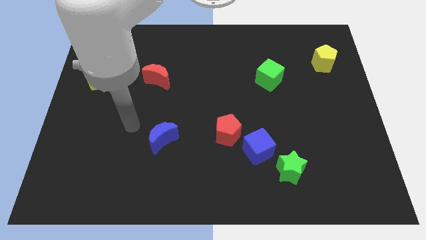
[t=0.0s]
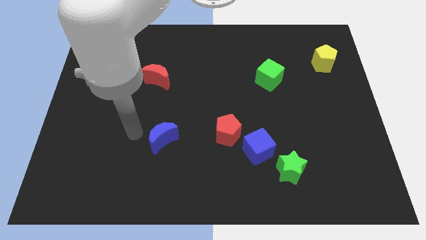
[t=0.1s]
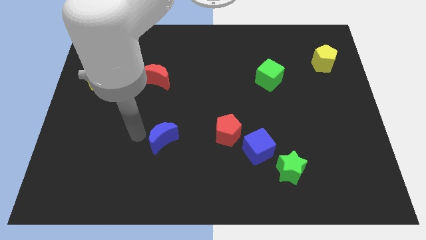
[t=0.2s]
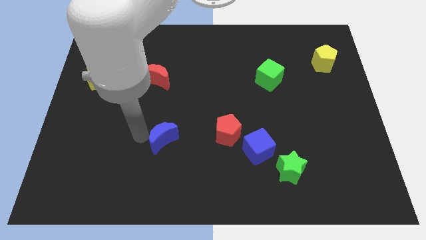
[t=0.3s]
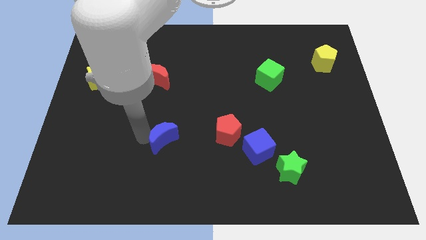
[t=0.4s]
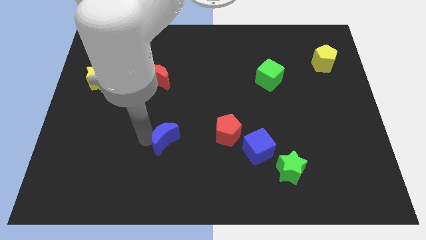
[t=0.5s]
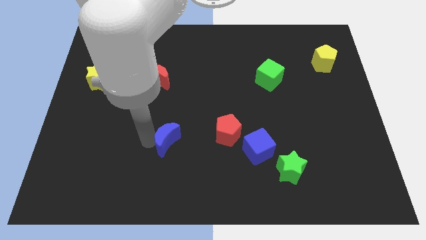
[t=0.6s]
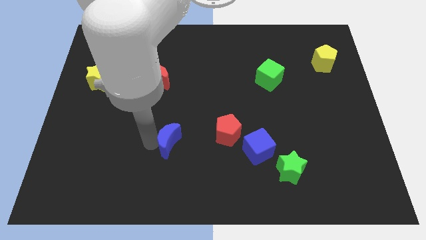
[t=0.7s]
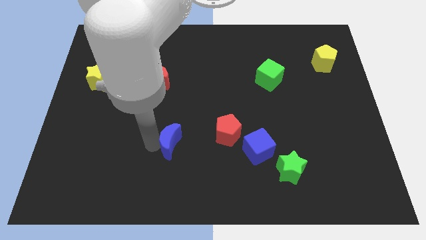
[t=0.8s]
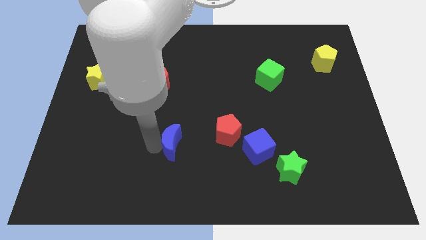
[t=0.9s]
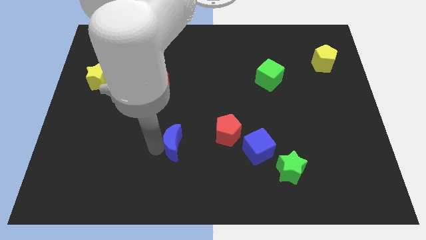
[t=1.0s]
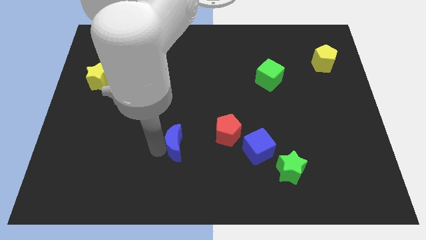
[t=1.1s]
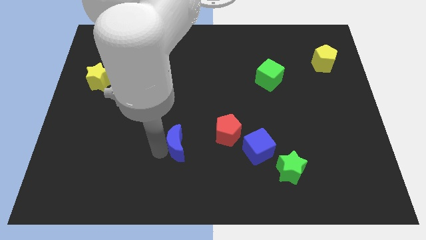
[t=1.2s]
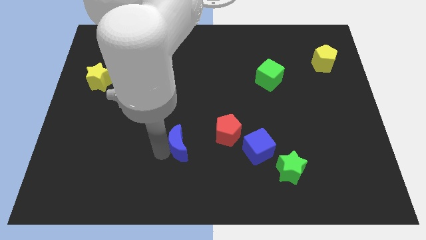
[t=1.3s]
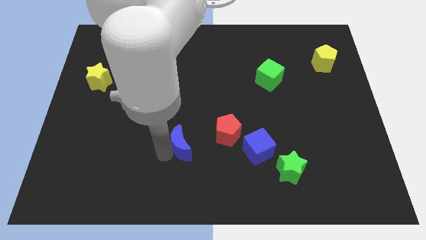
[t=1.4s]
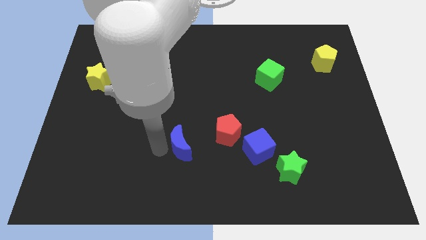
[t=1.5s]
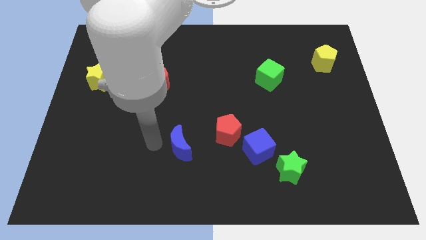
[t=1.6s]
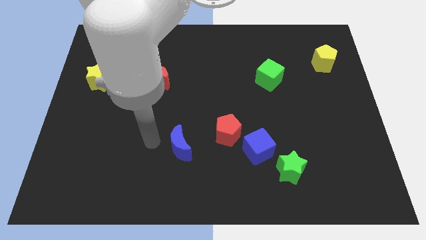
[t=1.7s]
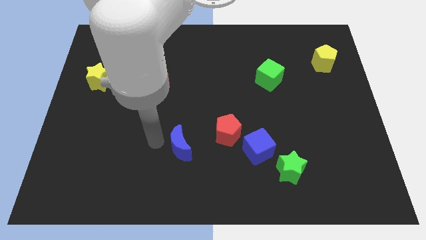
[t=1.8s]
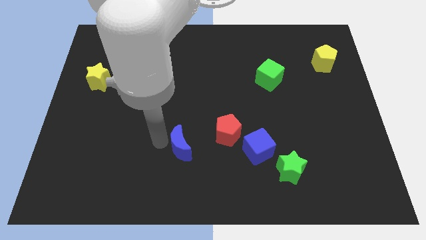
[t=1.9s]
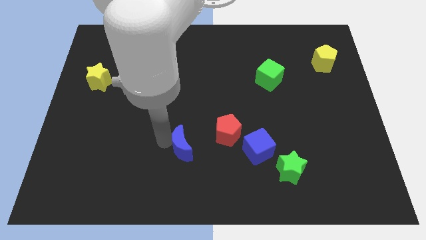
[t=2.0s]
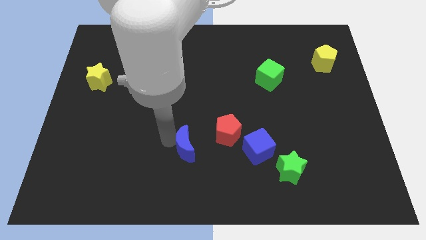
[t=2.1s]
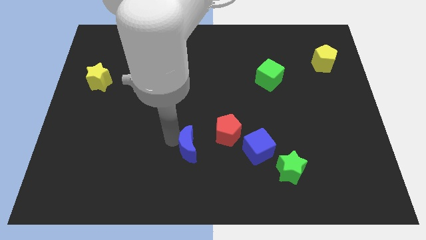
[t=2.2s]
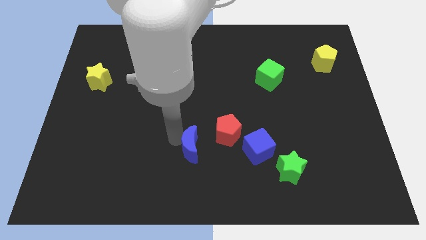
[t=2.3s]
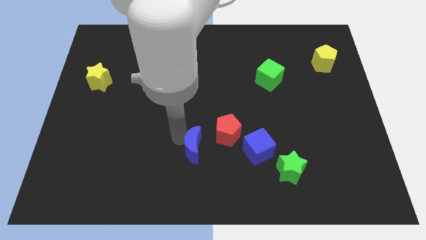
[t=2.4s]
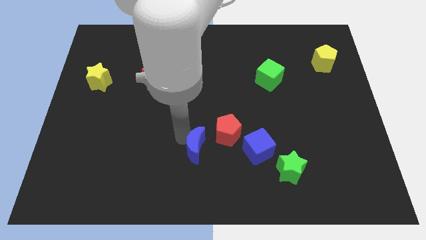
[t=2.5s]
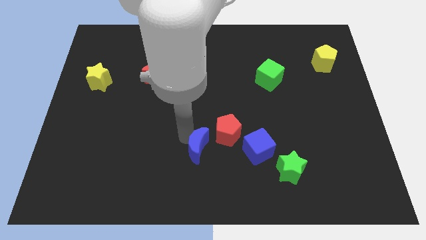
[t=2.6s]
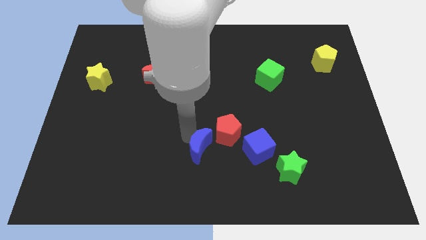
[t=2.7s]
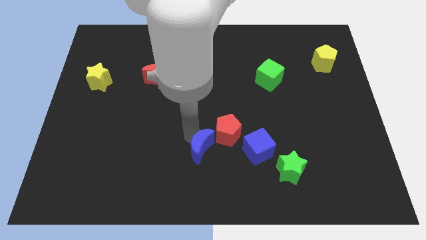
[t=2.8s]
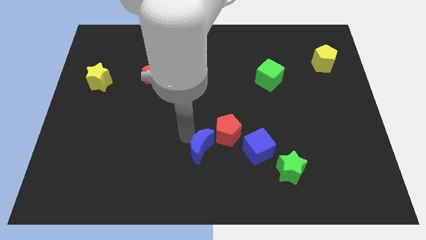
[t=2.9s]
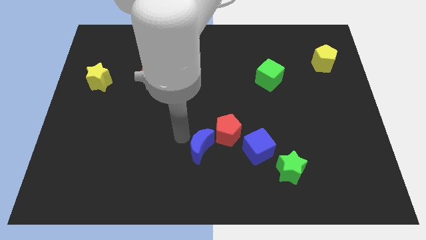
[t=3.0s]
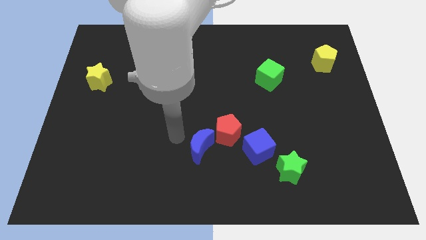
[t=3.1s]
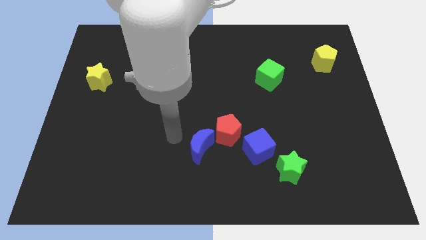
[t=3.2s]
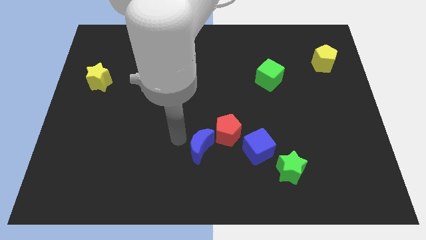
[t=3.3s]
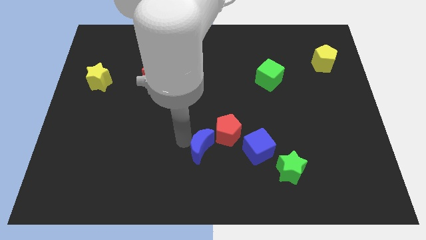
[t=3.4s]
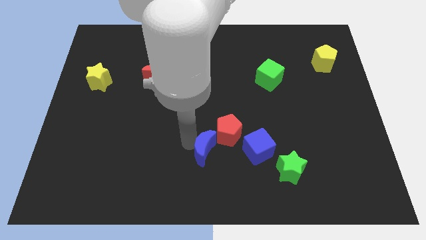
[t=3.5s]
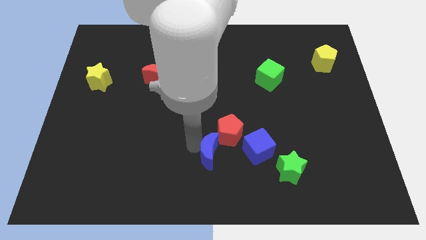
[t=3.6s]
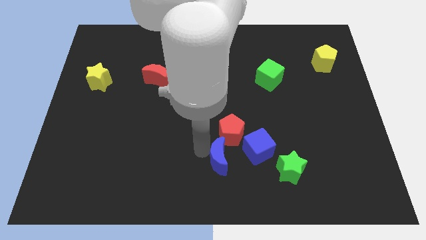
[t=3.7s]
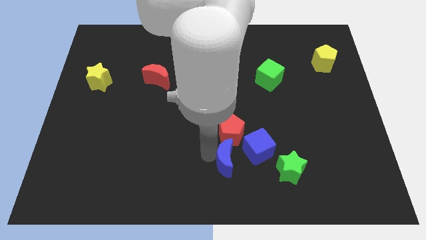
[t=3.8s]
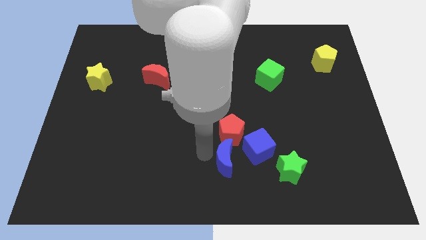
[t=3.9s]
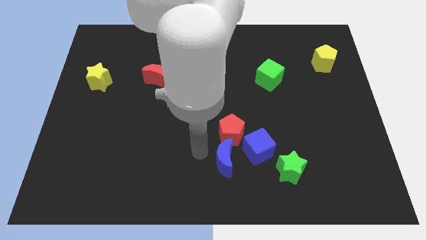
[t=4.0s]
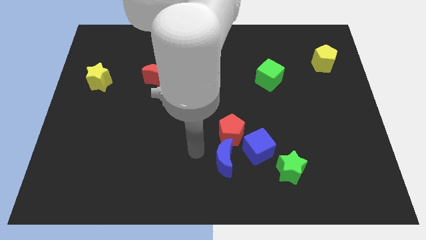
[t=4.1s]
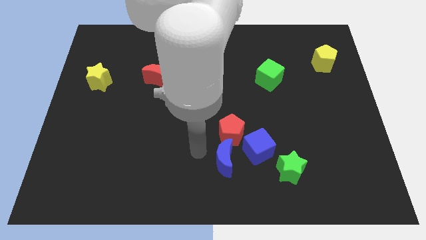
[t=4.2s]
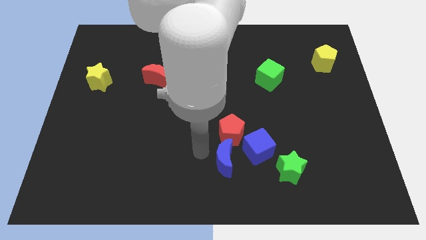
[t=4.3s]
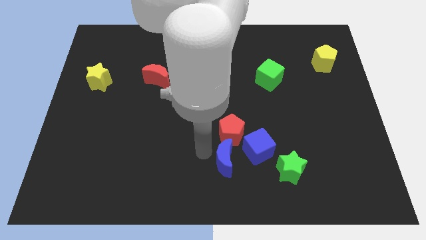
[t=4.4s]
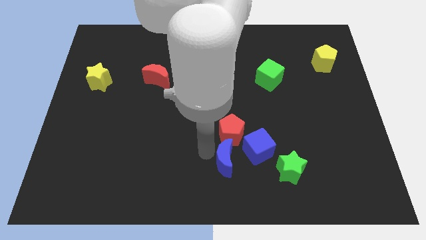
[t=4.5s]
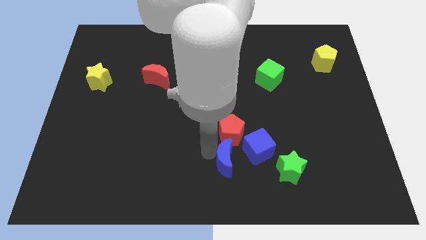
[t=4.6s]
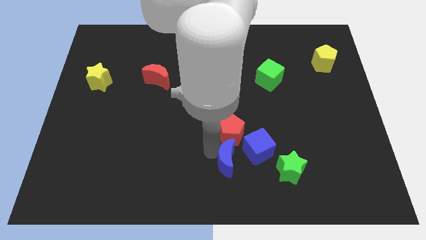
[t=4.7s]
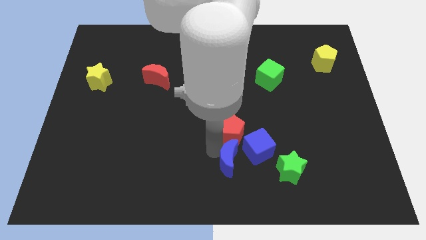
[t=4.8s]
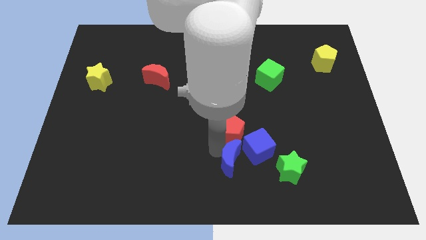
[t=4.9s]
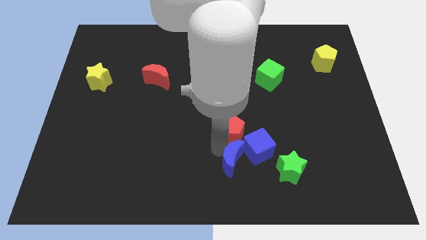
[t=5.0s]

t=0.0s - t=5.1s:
put the blue moon diagonally down and to the right of the red pentagon
